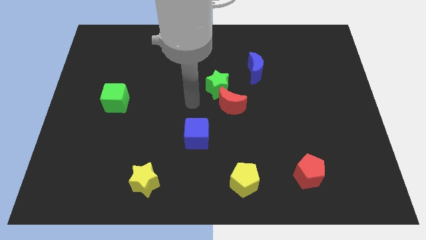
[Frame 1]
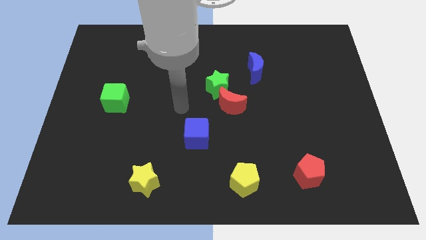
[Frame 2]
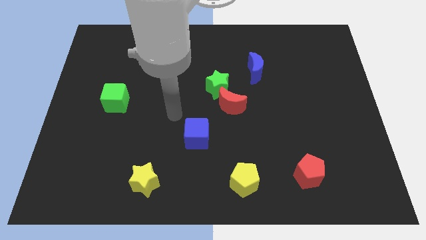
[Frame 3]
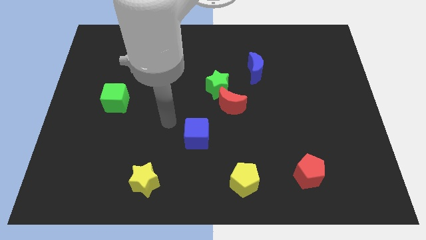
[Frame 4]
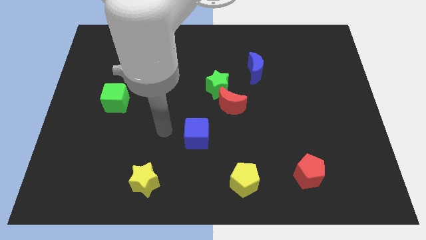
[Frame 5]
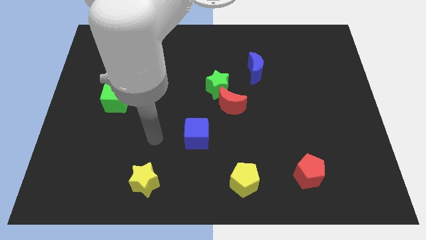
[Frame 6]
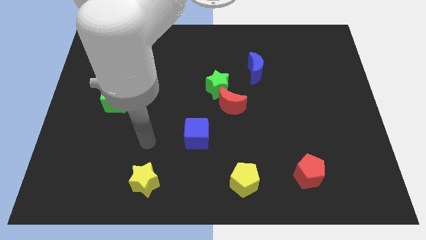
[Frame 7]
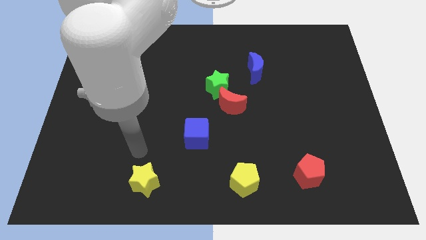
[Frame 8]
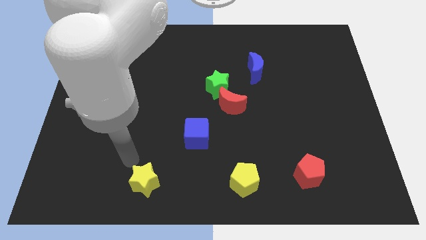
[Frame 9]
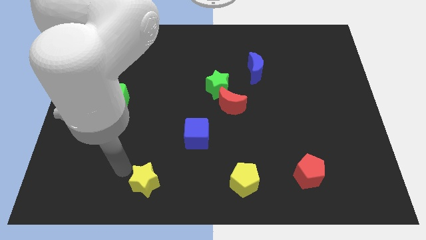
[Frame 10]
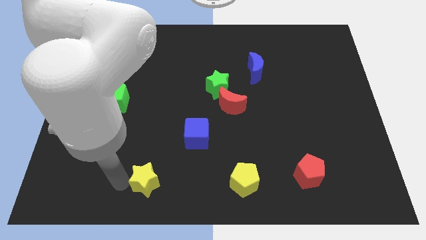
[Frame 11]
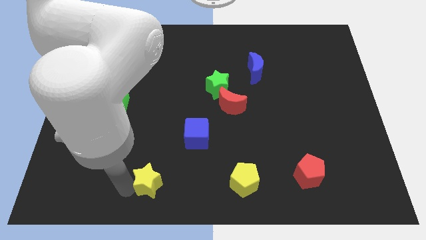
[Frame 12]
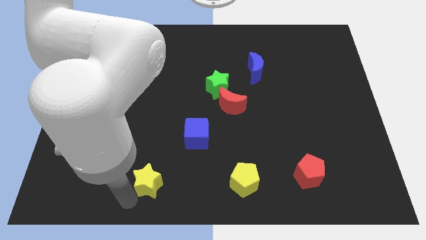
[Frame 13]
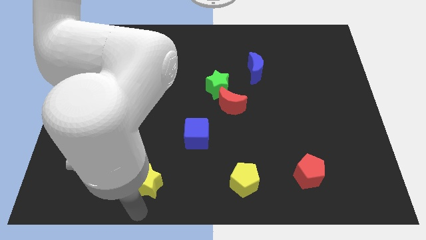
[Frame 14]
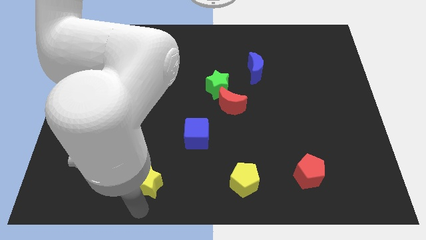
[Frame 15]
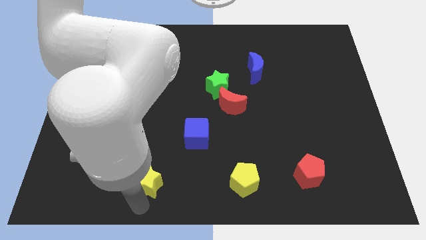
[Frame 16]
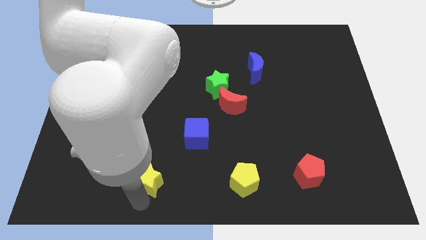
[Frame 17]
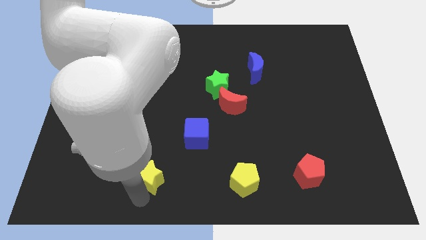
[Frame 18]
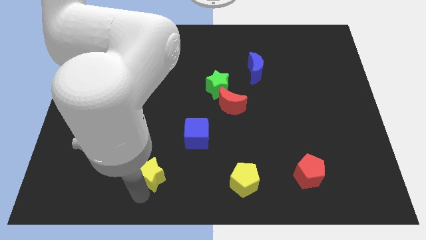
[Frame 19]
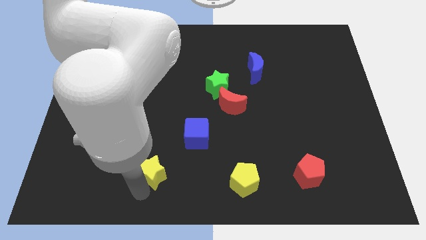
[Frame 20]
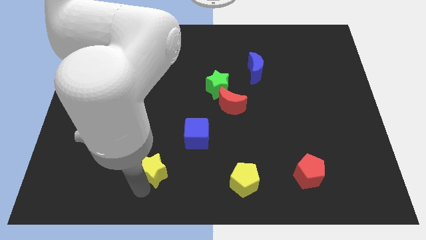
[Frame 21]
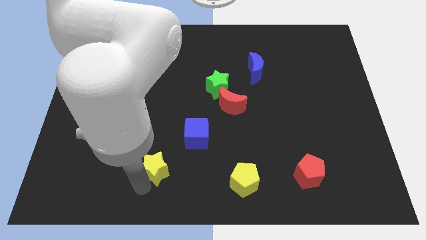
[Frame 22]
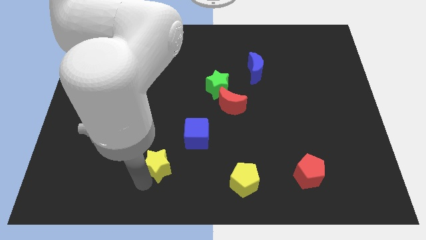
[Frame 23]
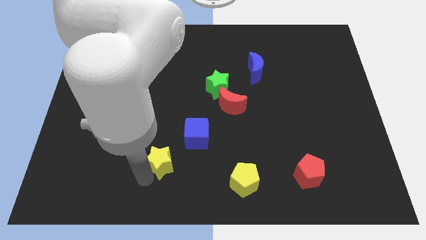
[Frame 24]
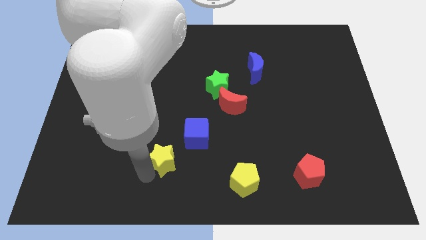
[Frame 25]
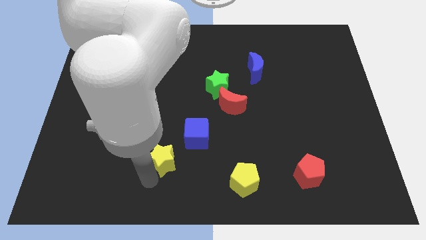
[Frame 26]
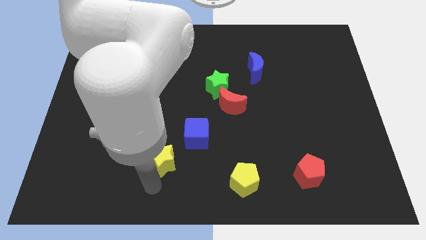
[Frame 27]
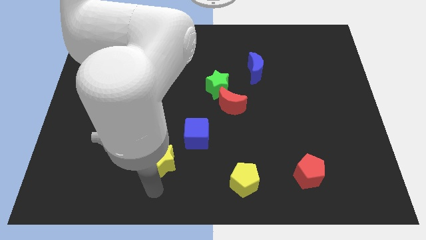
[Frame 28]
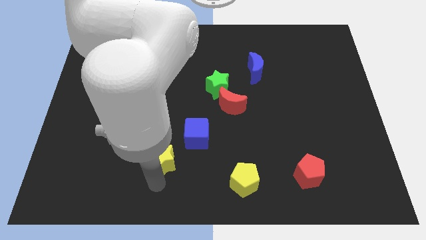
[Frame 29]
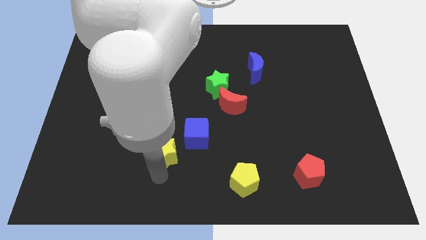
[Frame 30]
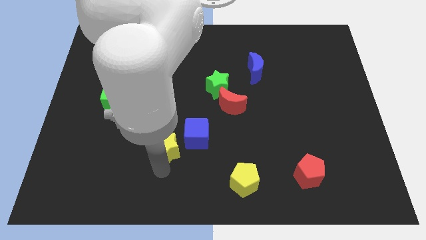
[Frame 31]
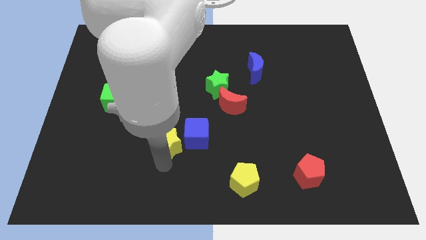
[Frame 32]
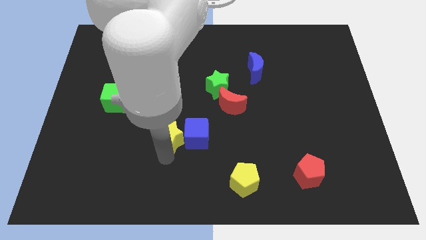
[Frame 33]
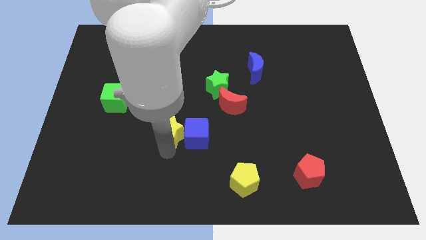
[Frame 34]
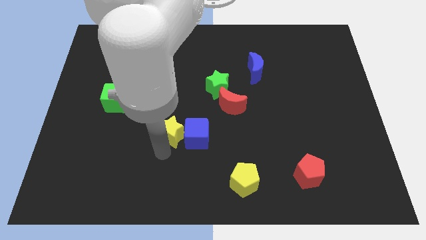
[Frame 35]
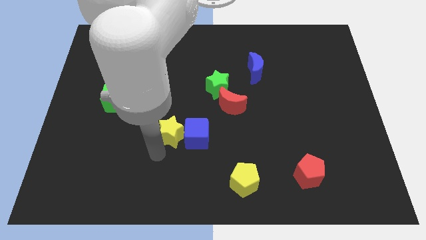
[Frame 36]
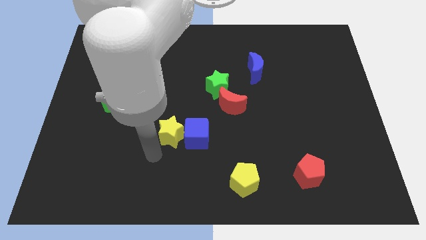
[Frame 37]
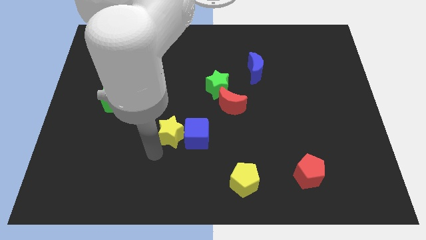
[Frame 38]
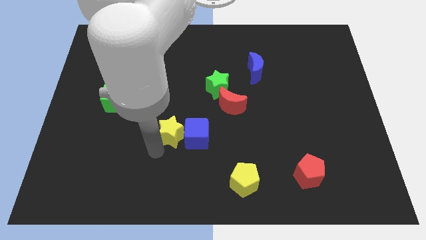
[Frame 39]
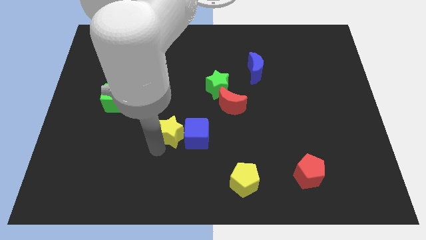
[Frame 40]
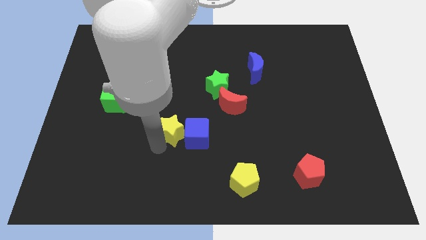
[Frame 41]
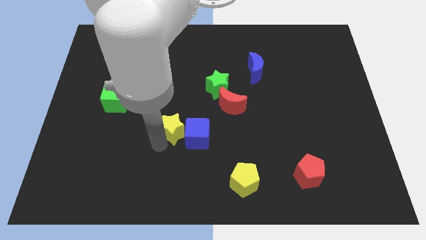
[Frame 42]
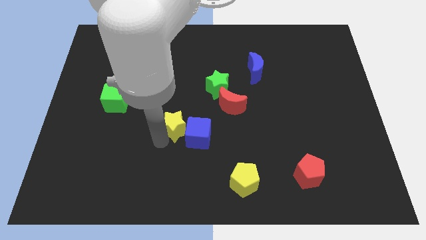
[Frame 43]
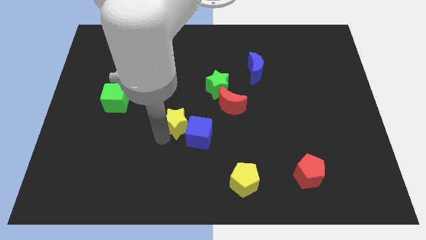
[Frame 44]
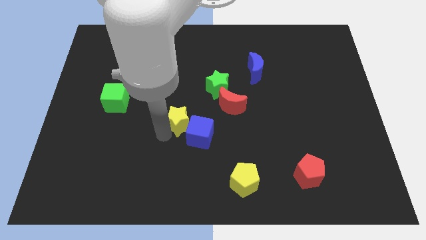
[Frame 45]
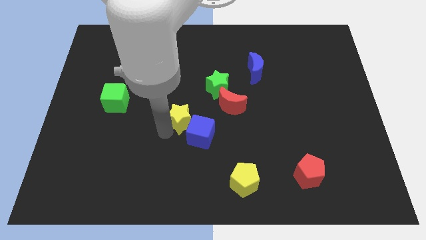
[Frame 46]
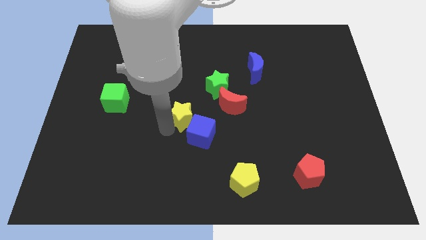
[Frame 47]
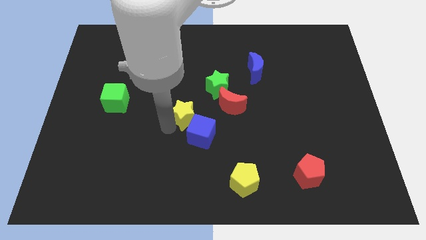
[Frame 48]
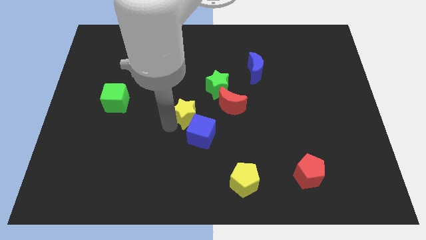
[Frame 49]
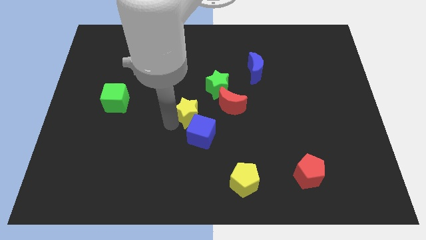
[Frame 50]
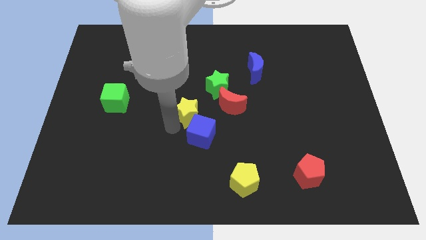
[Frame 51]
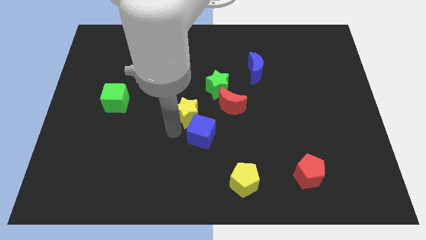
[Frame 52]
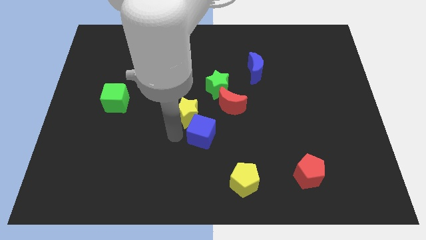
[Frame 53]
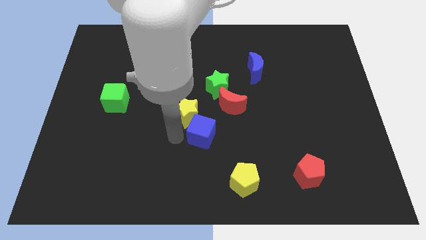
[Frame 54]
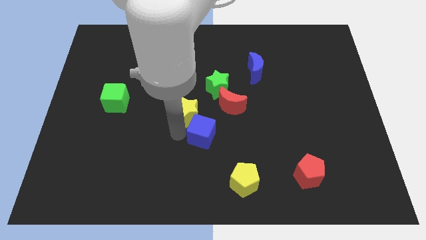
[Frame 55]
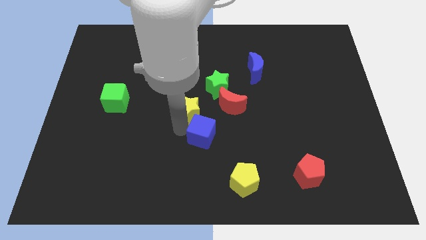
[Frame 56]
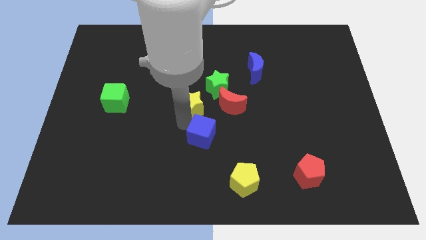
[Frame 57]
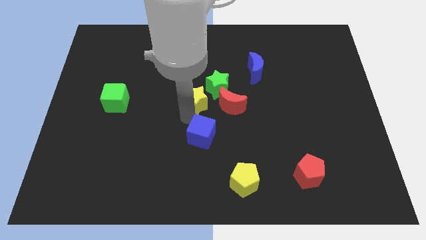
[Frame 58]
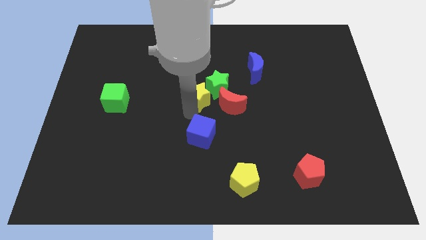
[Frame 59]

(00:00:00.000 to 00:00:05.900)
move the yellow star to the green star

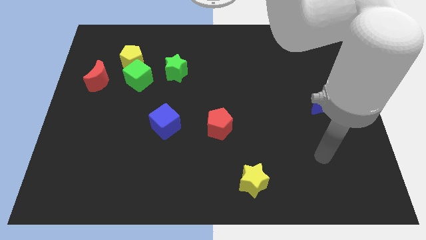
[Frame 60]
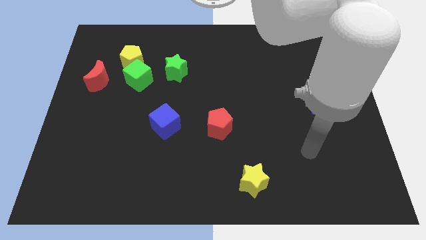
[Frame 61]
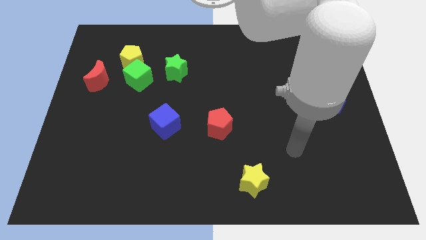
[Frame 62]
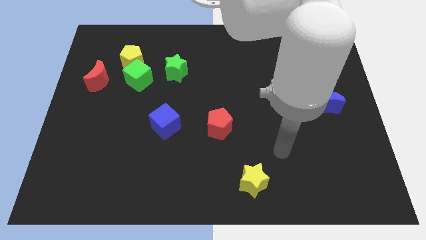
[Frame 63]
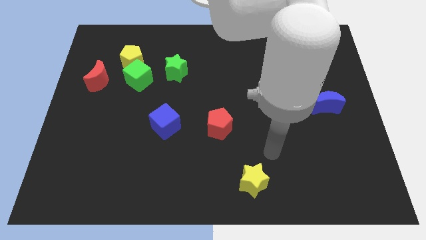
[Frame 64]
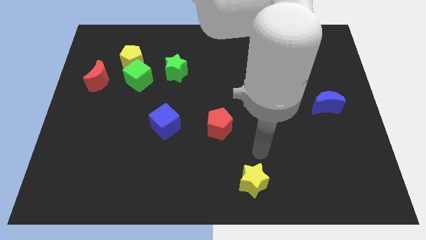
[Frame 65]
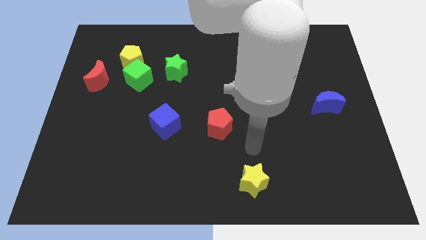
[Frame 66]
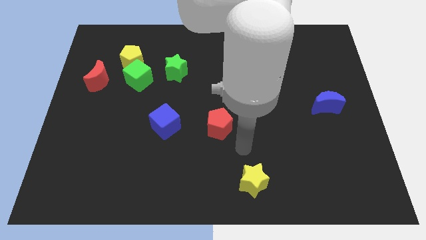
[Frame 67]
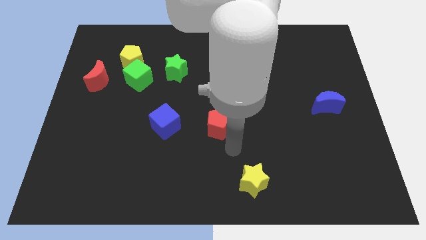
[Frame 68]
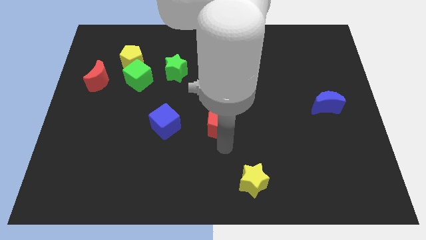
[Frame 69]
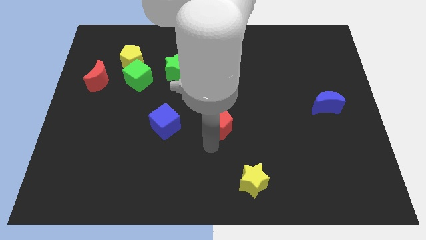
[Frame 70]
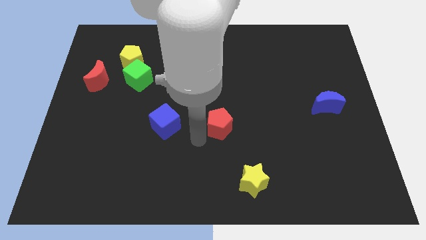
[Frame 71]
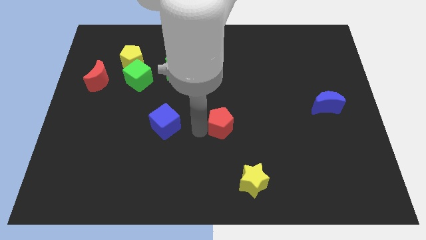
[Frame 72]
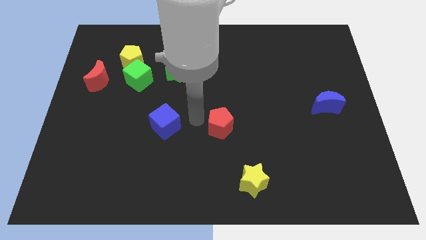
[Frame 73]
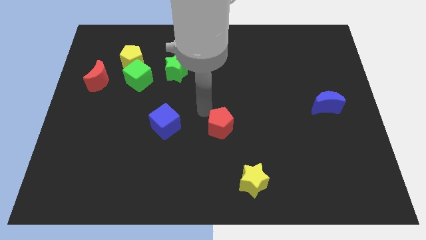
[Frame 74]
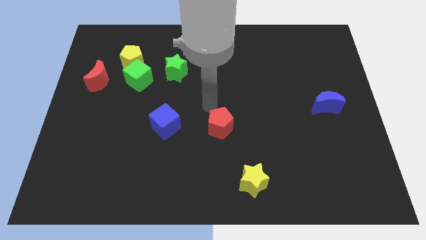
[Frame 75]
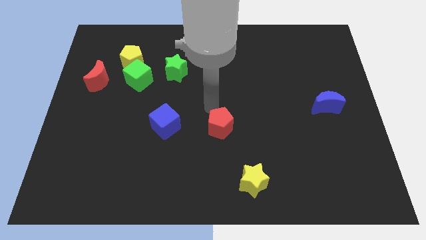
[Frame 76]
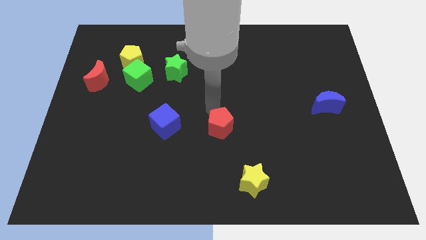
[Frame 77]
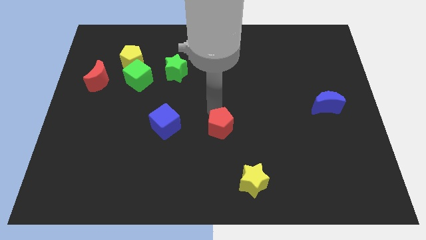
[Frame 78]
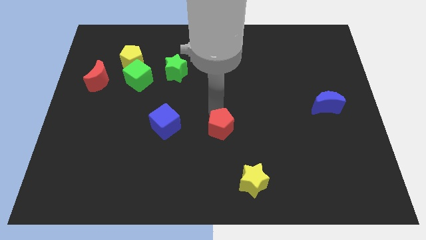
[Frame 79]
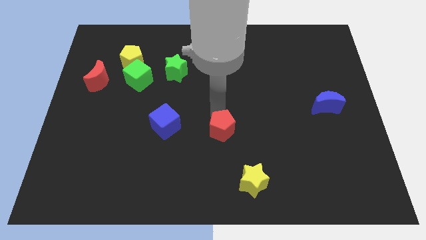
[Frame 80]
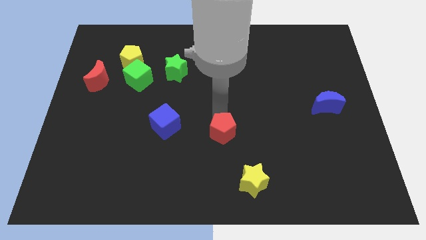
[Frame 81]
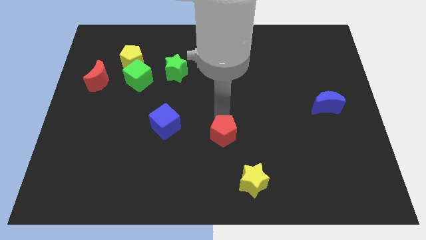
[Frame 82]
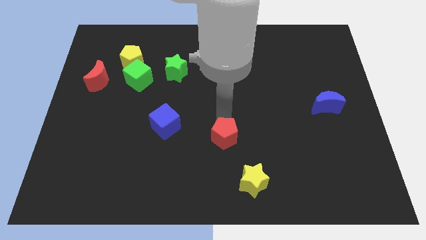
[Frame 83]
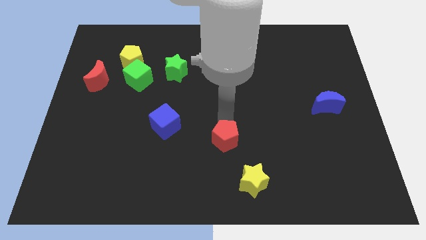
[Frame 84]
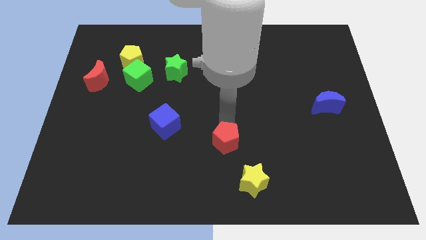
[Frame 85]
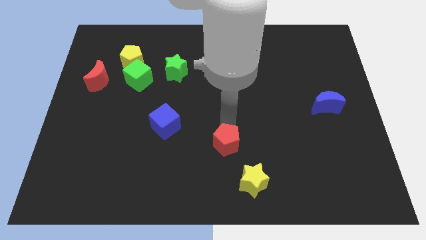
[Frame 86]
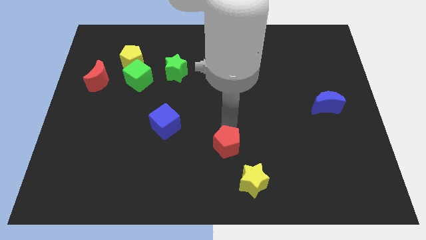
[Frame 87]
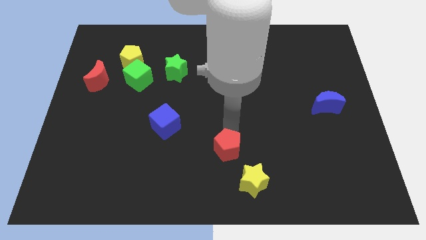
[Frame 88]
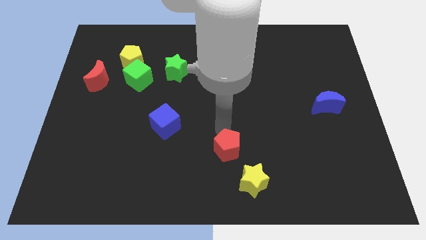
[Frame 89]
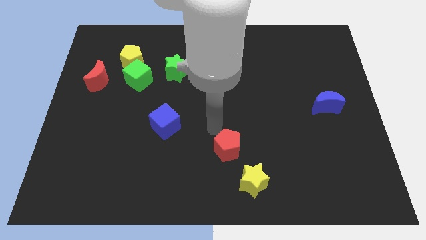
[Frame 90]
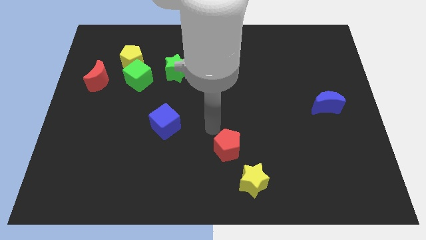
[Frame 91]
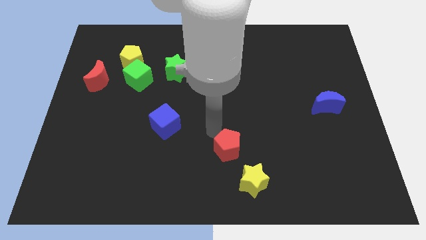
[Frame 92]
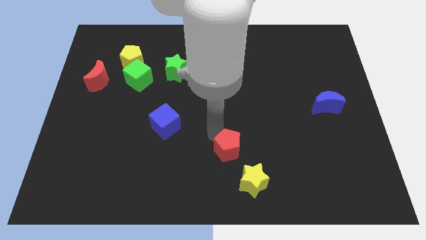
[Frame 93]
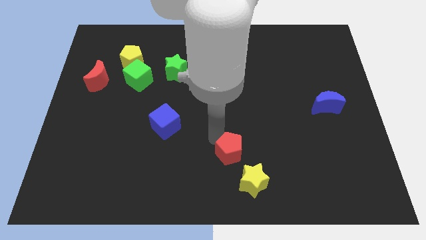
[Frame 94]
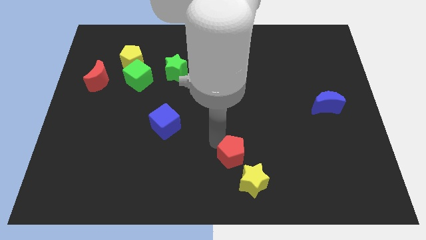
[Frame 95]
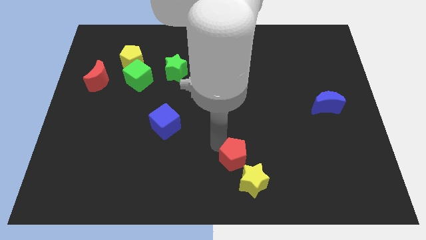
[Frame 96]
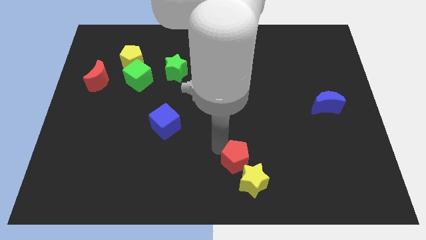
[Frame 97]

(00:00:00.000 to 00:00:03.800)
put the red pentagon close to the yellow star
